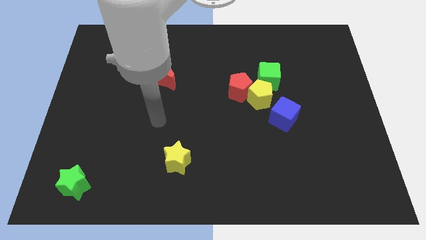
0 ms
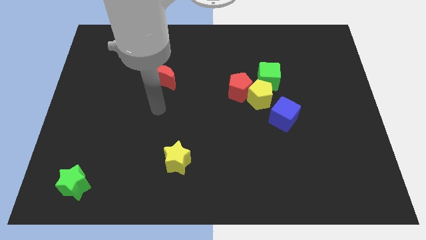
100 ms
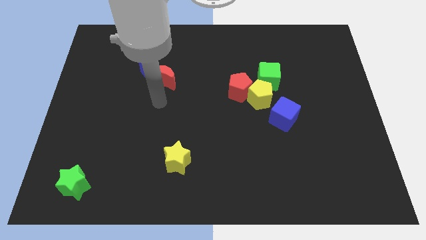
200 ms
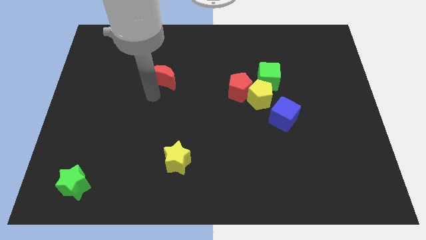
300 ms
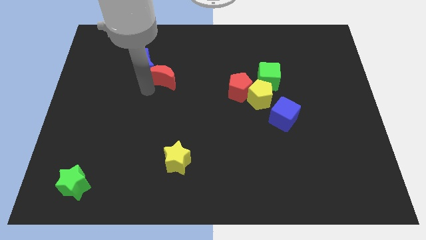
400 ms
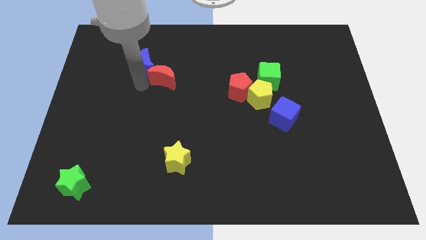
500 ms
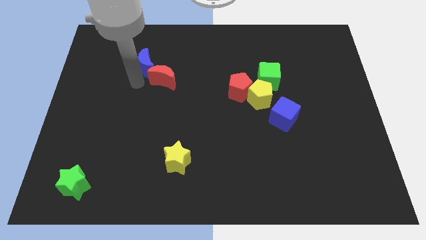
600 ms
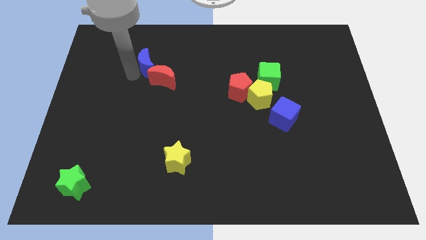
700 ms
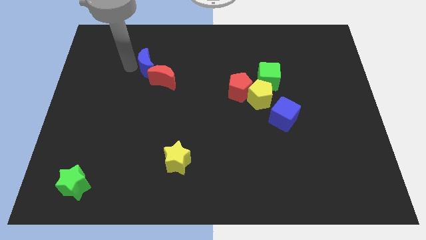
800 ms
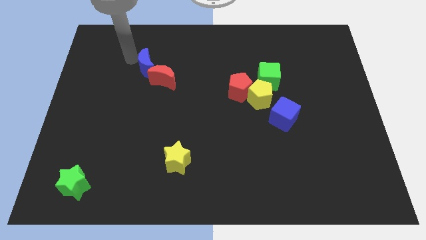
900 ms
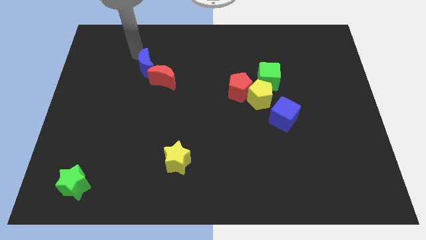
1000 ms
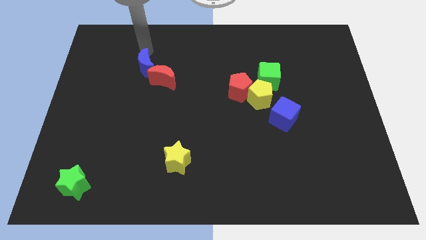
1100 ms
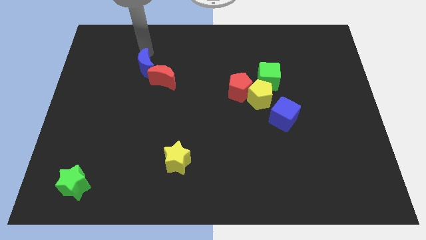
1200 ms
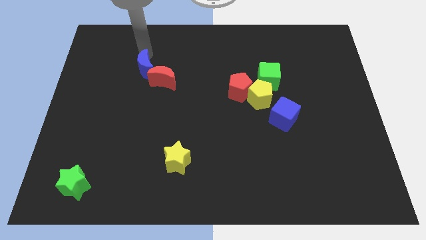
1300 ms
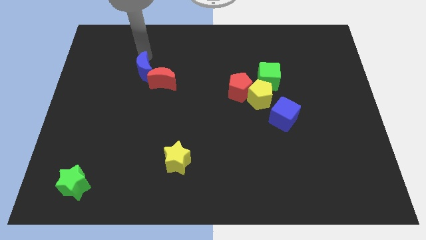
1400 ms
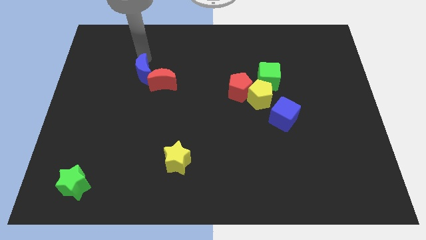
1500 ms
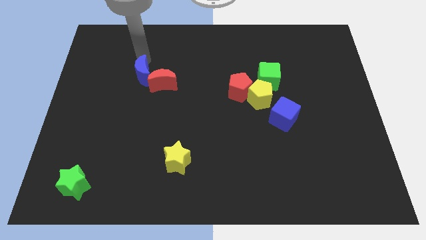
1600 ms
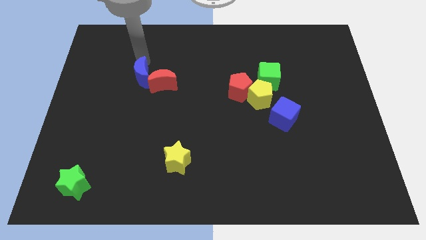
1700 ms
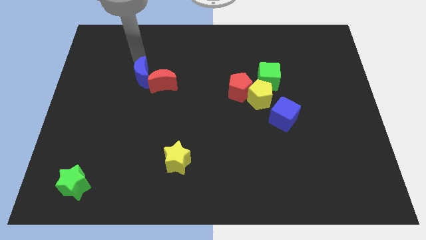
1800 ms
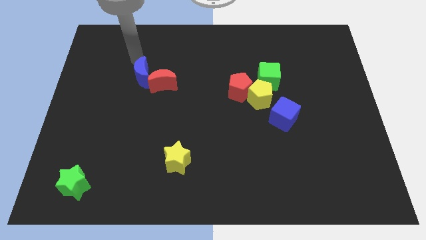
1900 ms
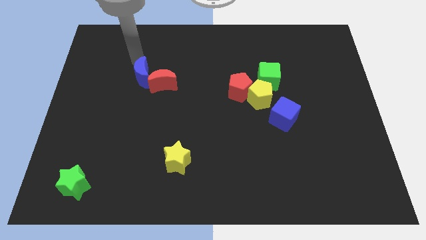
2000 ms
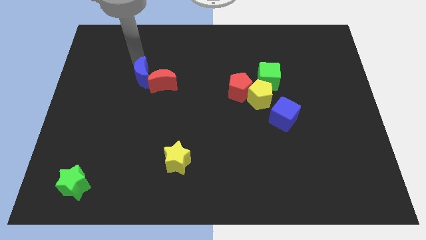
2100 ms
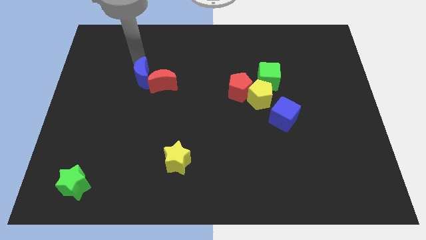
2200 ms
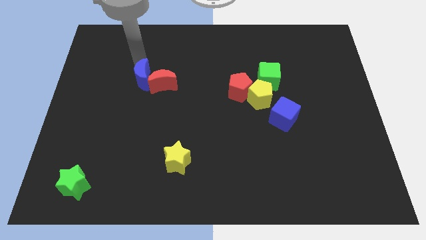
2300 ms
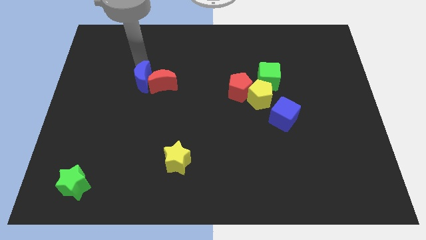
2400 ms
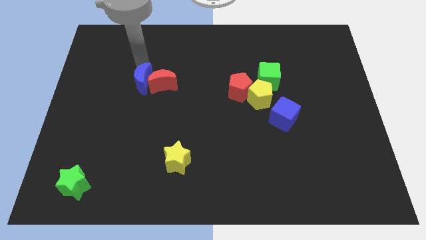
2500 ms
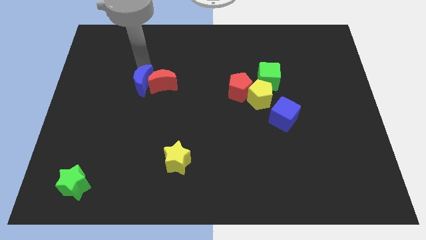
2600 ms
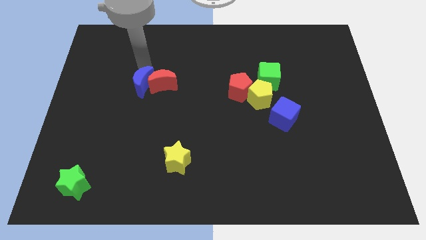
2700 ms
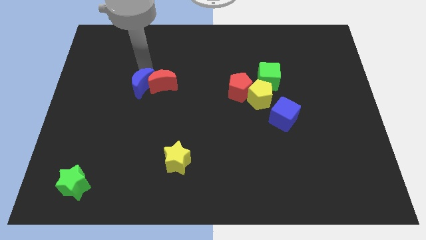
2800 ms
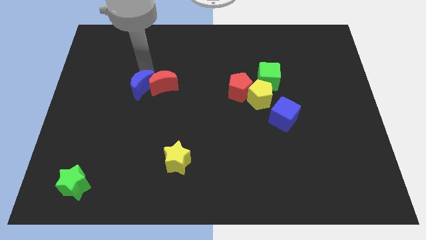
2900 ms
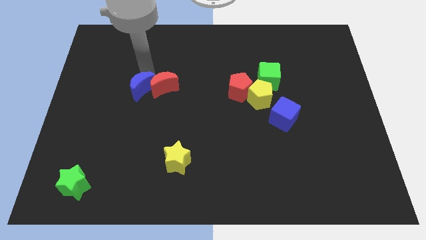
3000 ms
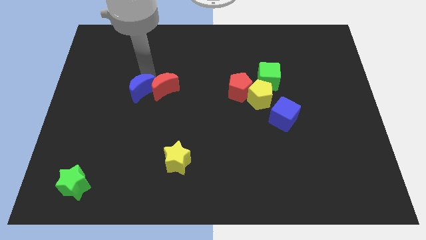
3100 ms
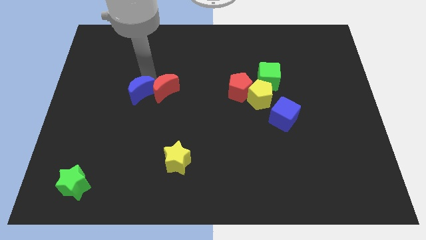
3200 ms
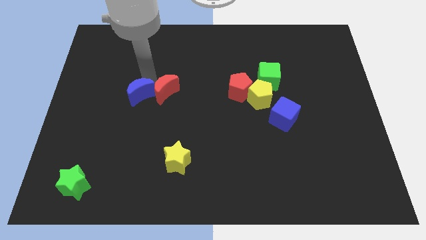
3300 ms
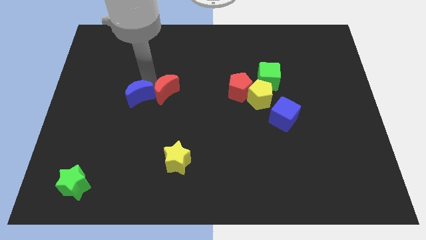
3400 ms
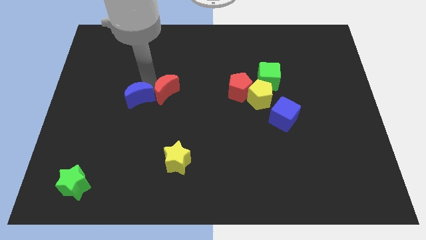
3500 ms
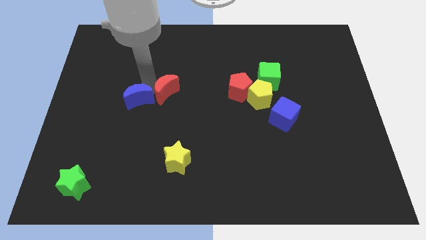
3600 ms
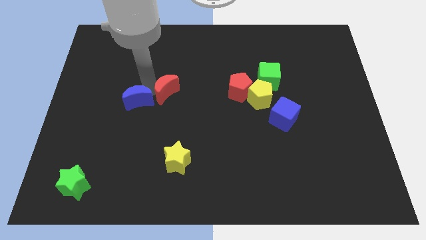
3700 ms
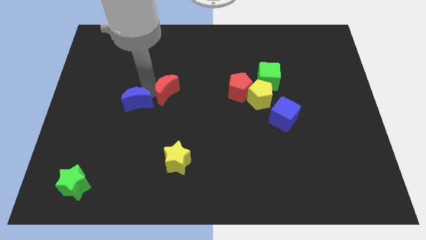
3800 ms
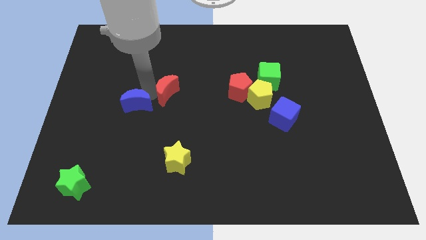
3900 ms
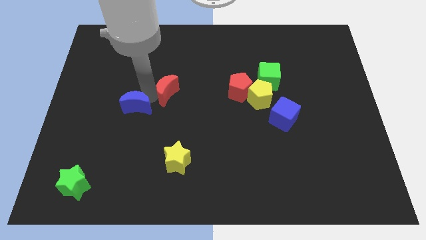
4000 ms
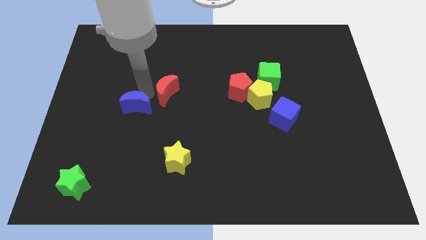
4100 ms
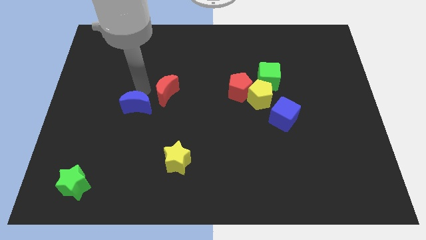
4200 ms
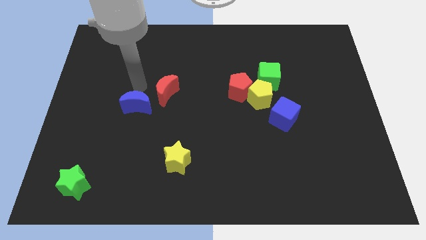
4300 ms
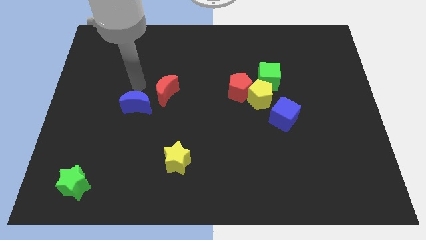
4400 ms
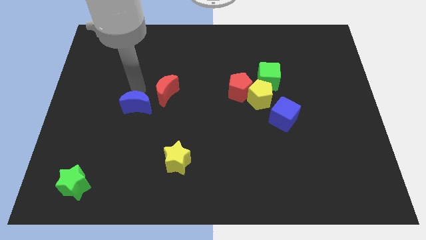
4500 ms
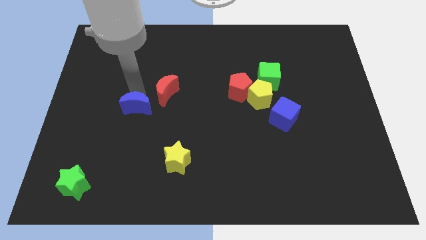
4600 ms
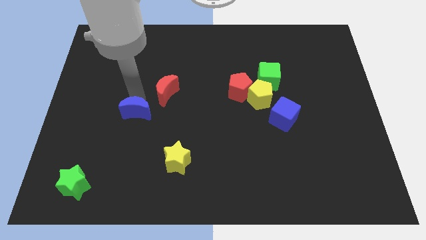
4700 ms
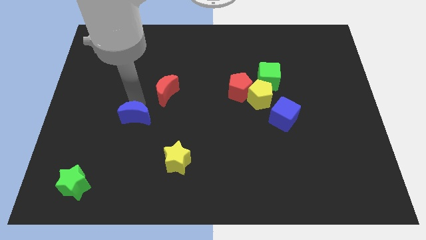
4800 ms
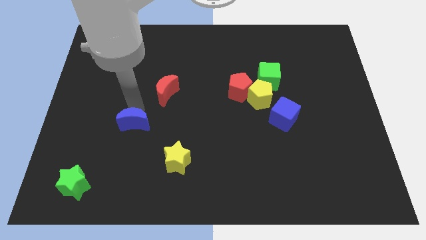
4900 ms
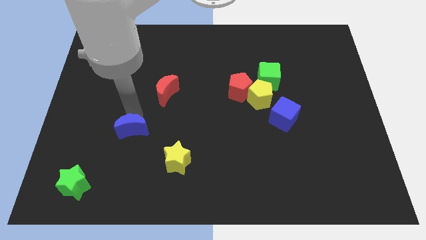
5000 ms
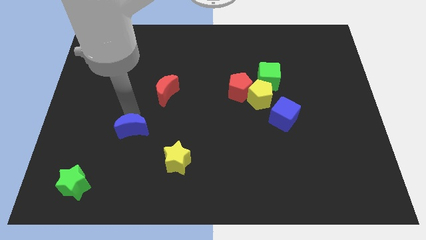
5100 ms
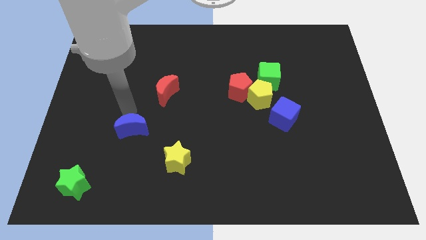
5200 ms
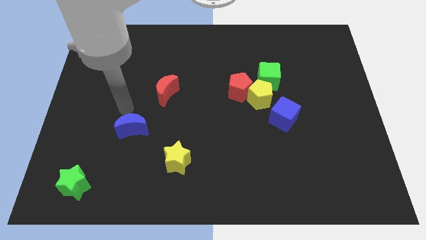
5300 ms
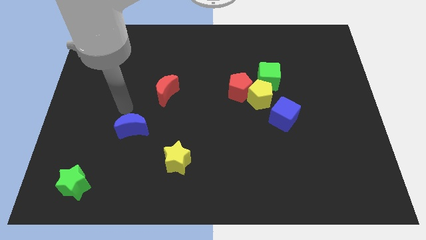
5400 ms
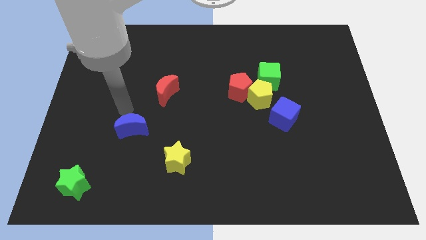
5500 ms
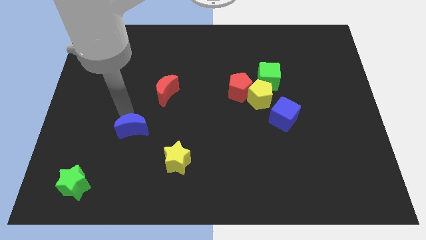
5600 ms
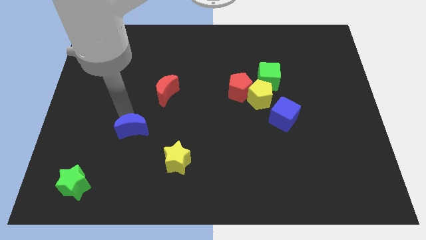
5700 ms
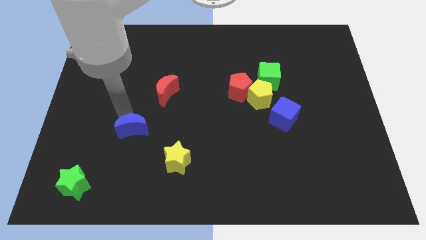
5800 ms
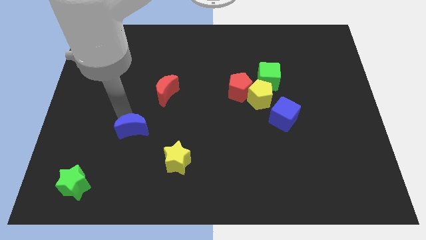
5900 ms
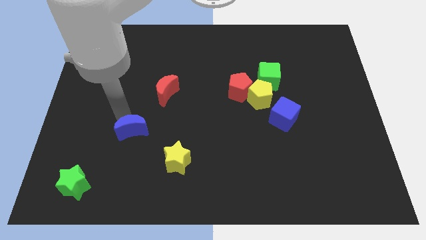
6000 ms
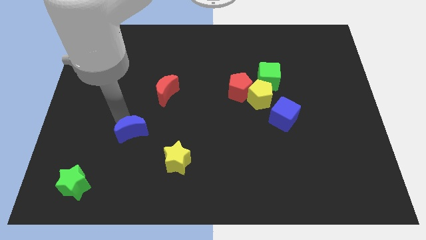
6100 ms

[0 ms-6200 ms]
move the blue moon down

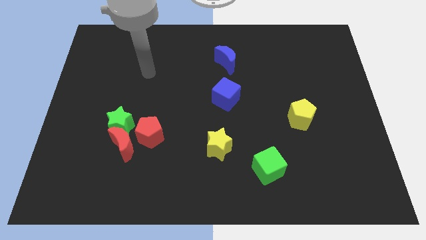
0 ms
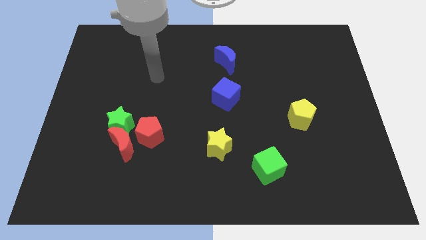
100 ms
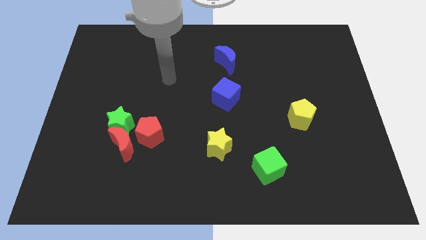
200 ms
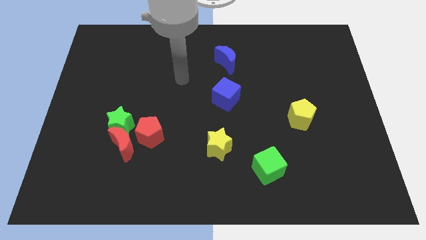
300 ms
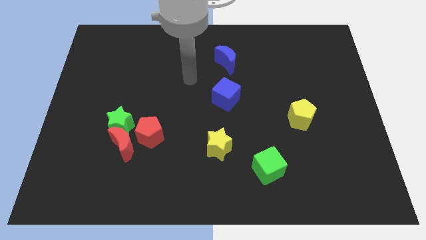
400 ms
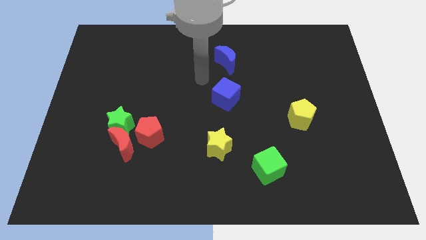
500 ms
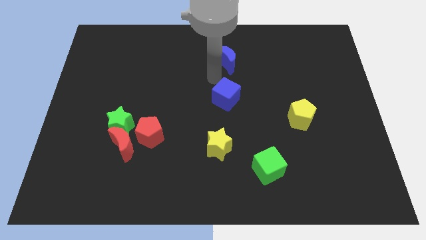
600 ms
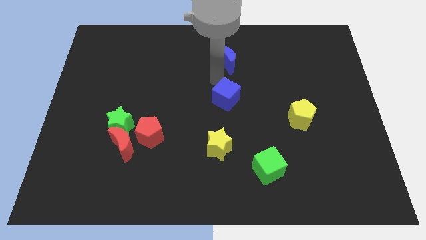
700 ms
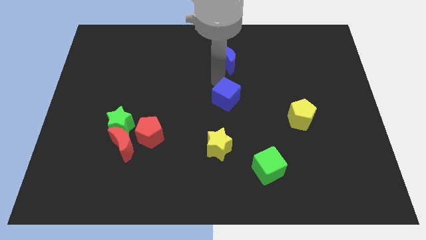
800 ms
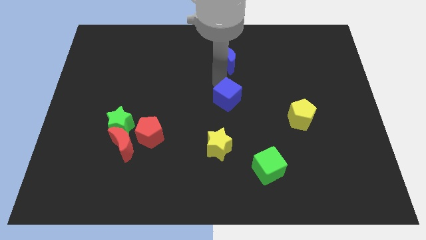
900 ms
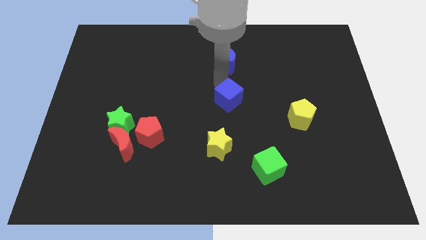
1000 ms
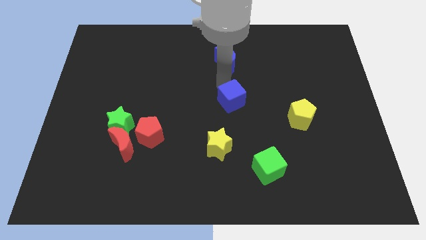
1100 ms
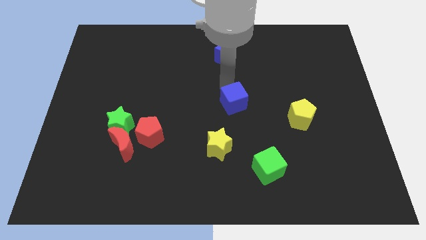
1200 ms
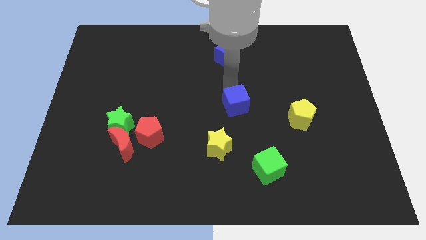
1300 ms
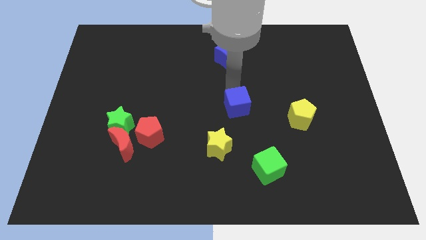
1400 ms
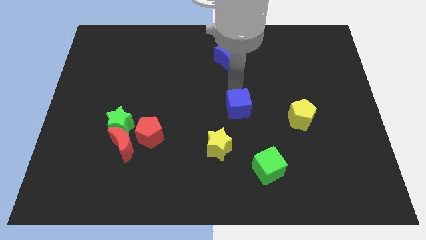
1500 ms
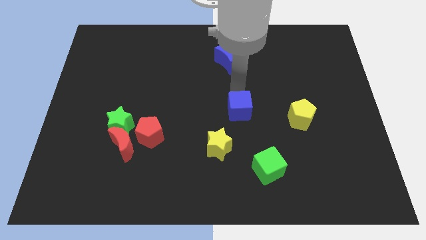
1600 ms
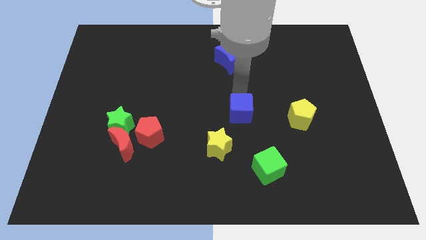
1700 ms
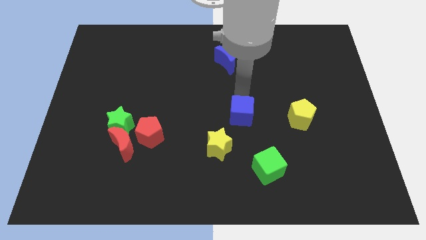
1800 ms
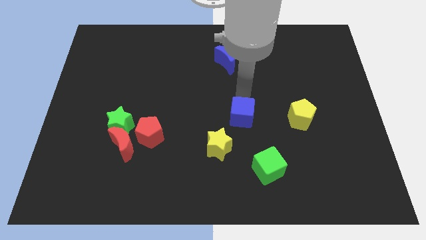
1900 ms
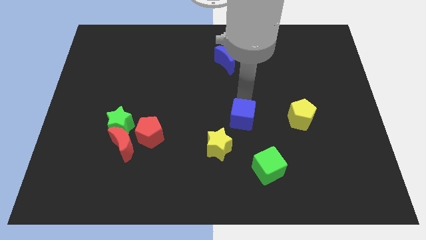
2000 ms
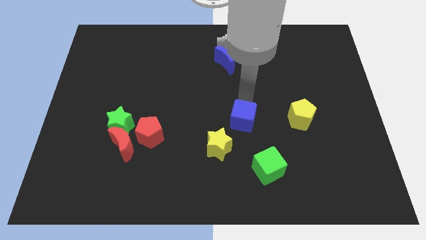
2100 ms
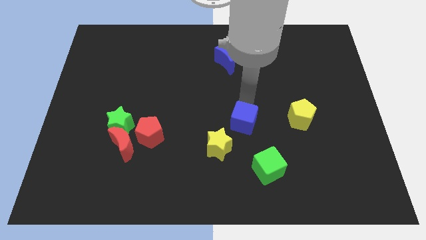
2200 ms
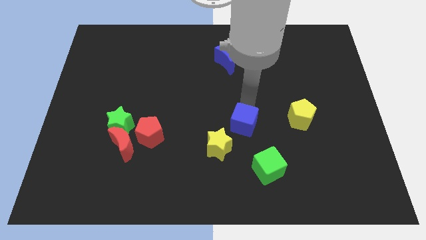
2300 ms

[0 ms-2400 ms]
slightly push the blue cube down
